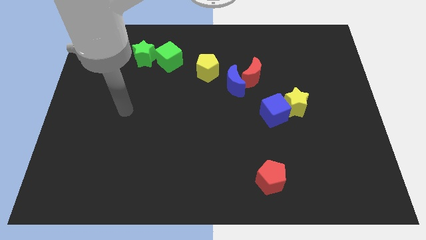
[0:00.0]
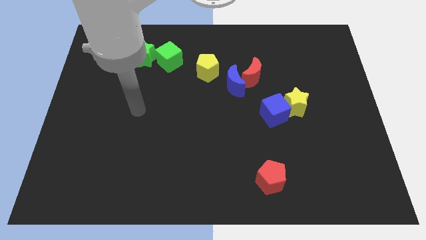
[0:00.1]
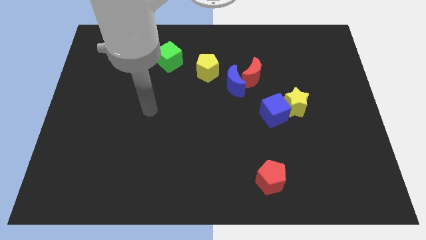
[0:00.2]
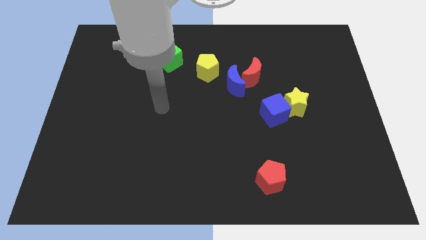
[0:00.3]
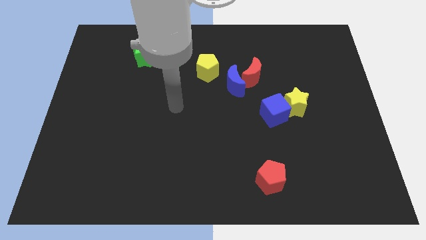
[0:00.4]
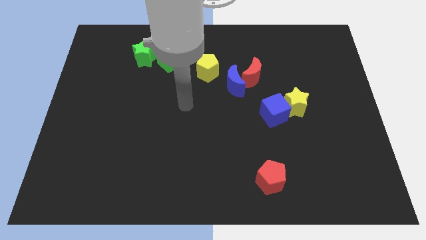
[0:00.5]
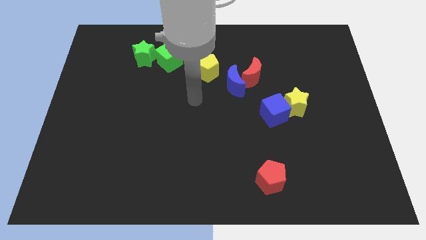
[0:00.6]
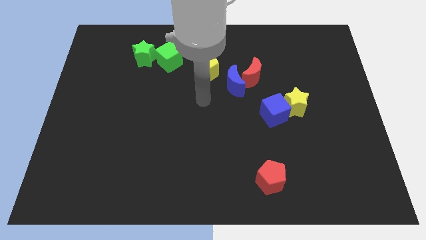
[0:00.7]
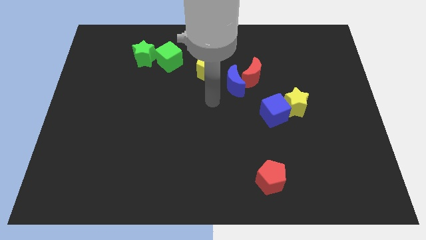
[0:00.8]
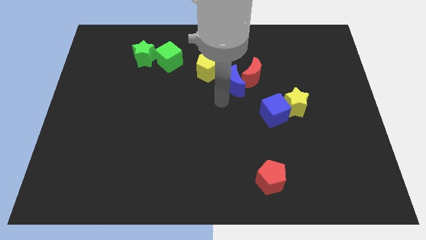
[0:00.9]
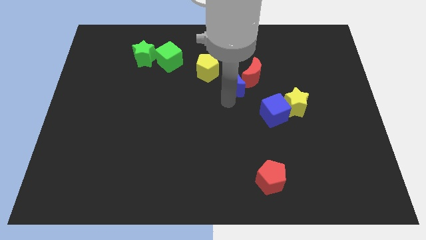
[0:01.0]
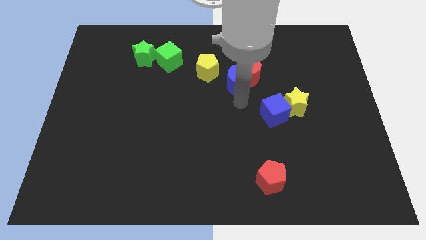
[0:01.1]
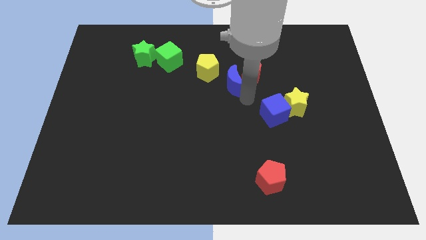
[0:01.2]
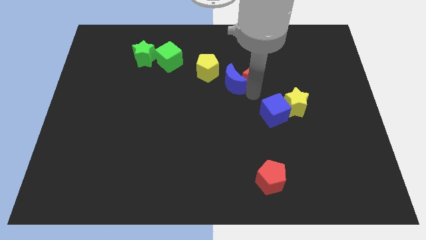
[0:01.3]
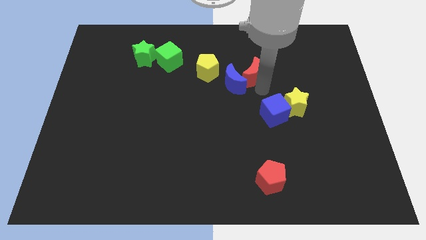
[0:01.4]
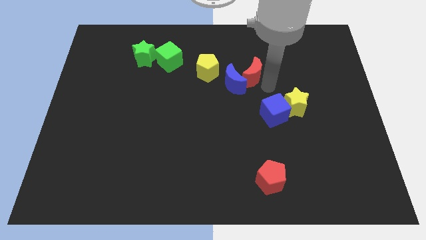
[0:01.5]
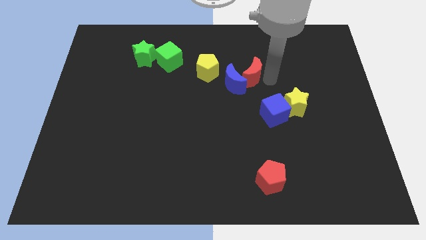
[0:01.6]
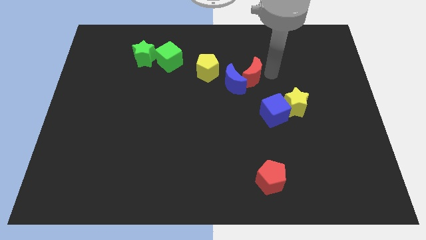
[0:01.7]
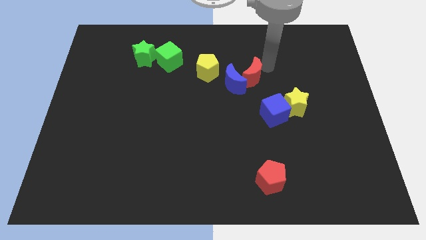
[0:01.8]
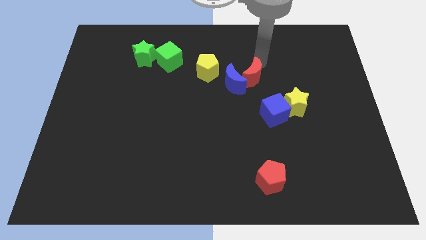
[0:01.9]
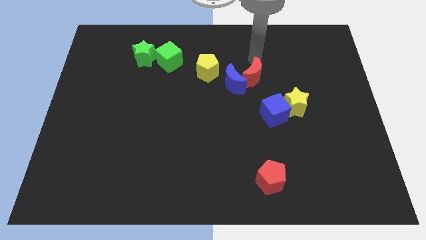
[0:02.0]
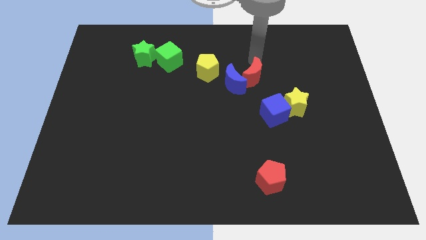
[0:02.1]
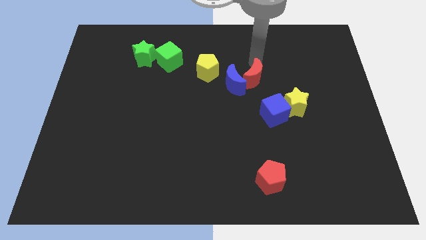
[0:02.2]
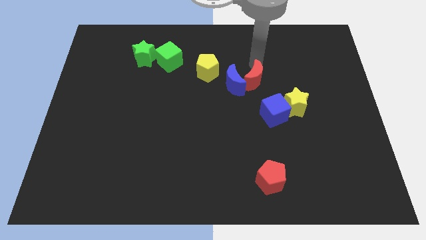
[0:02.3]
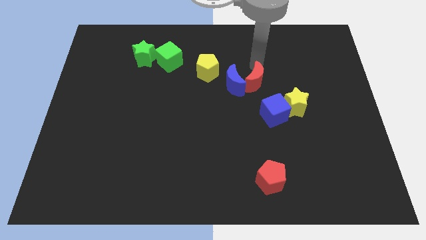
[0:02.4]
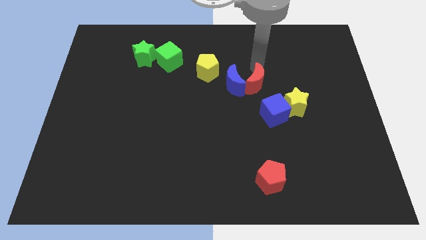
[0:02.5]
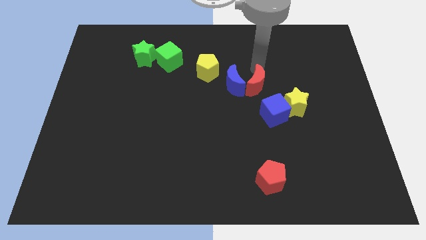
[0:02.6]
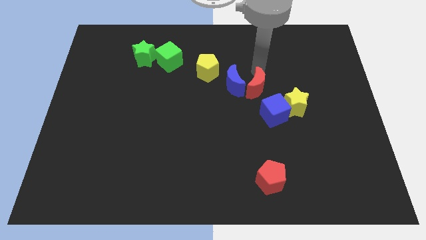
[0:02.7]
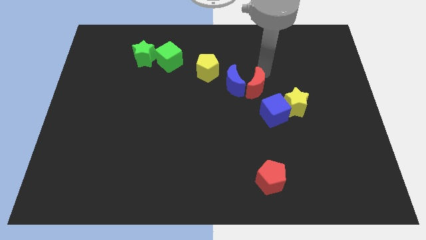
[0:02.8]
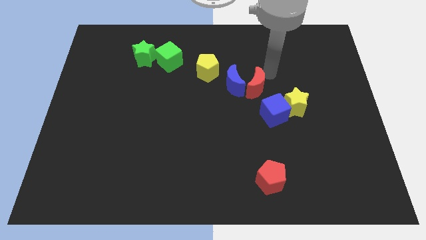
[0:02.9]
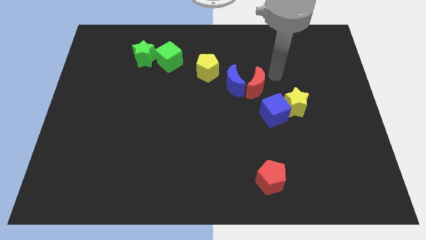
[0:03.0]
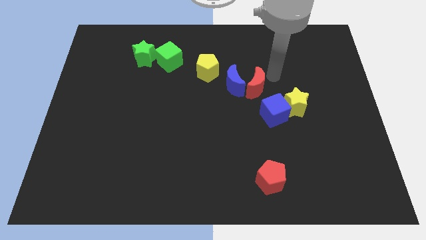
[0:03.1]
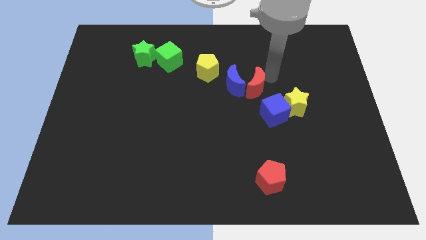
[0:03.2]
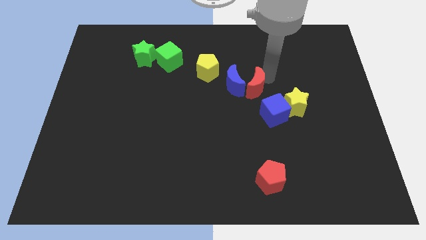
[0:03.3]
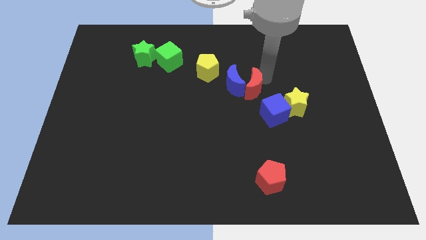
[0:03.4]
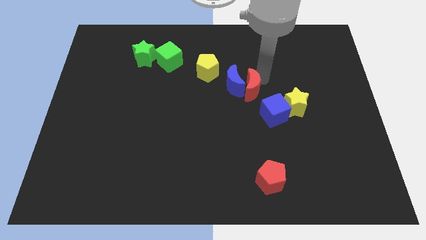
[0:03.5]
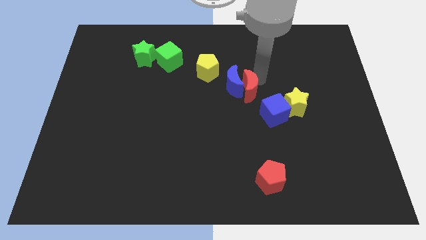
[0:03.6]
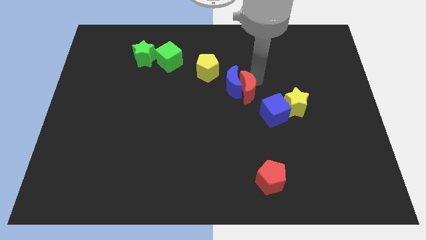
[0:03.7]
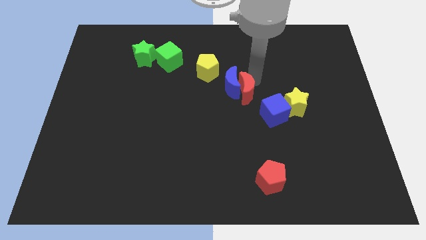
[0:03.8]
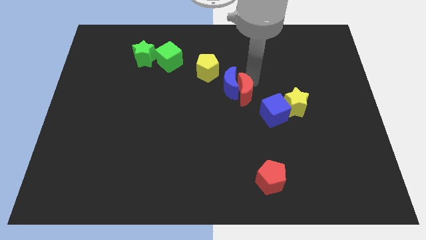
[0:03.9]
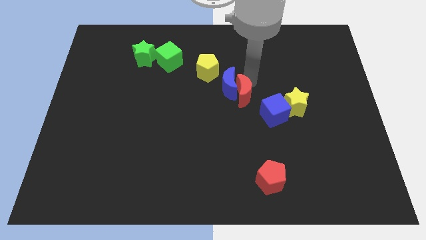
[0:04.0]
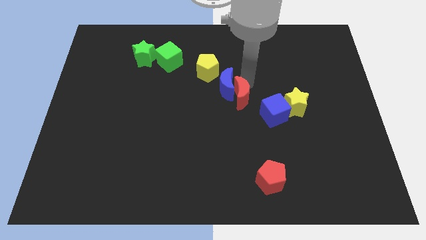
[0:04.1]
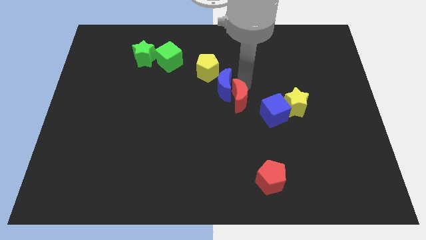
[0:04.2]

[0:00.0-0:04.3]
slightly move the red moon diagonally downwards and left

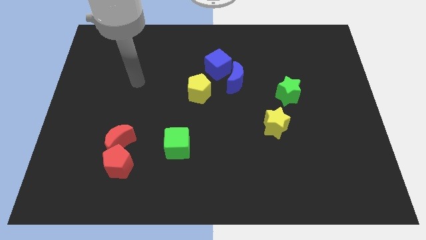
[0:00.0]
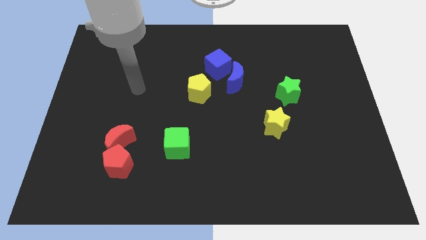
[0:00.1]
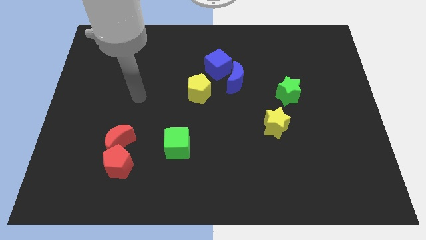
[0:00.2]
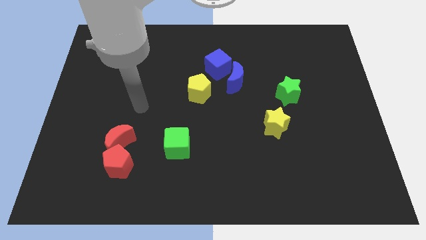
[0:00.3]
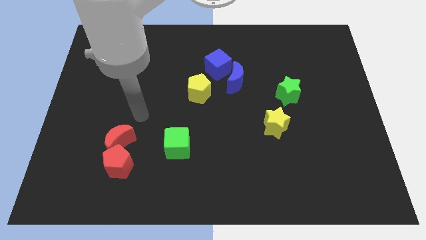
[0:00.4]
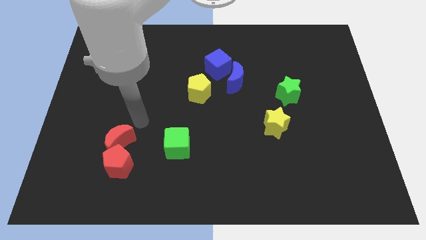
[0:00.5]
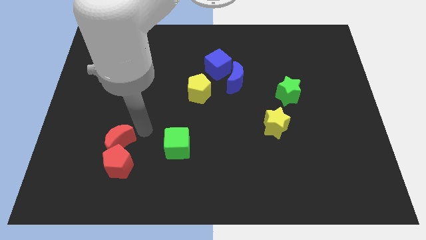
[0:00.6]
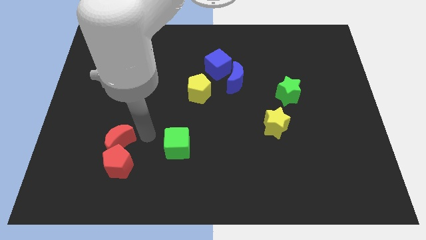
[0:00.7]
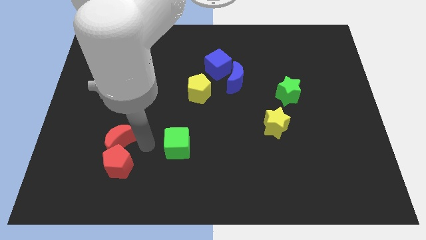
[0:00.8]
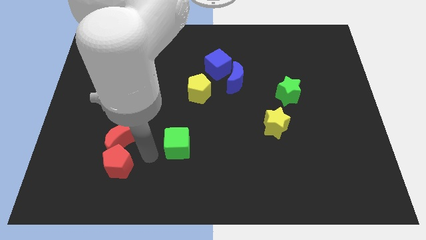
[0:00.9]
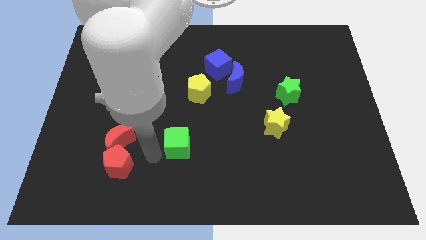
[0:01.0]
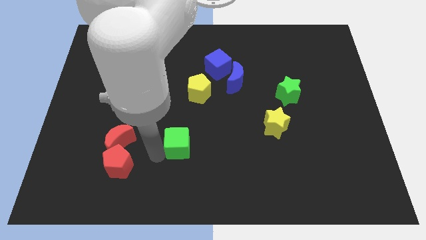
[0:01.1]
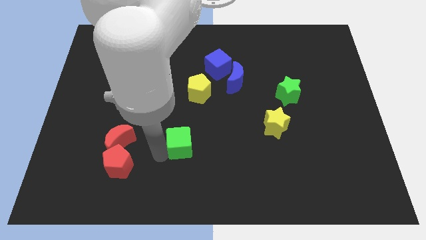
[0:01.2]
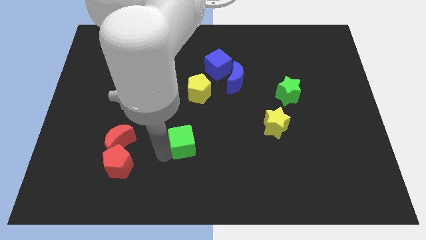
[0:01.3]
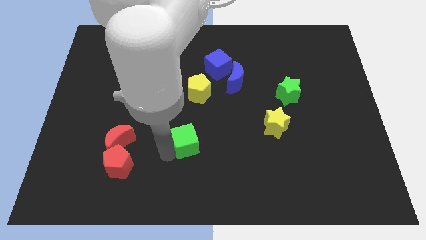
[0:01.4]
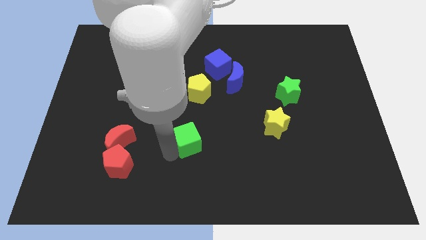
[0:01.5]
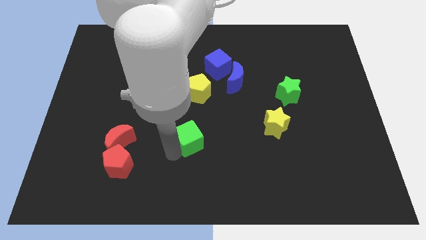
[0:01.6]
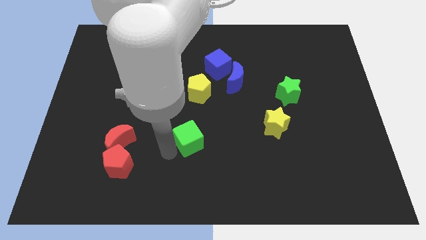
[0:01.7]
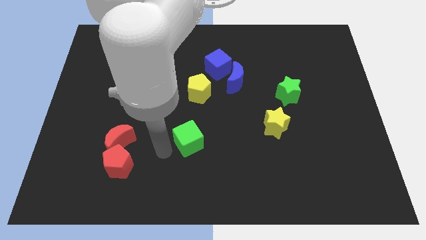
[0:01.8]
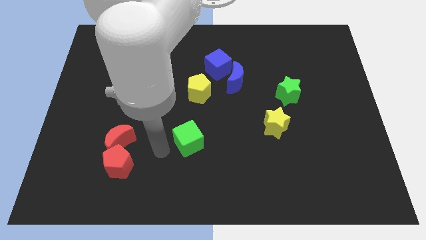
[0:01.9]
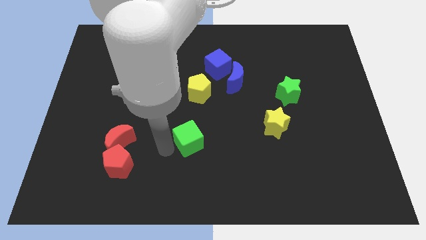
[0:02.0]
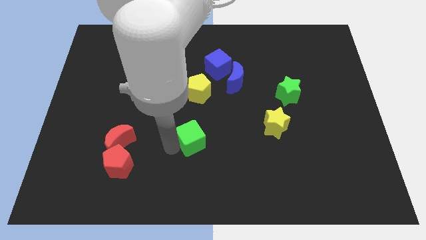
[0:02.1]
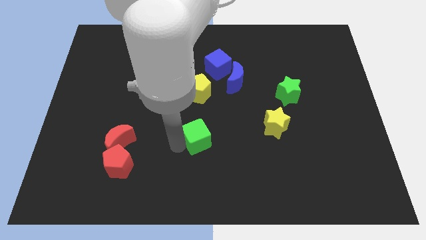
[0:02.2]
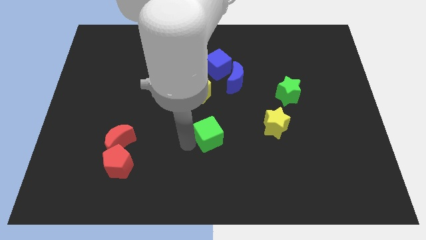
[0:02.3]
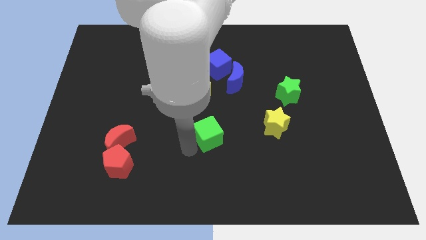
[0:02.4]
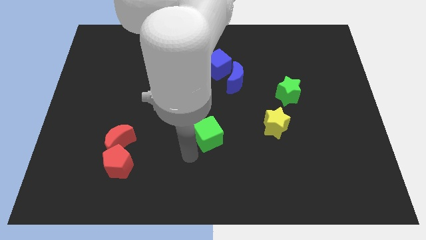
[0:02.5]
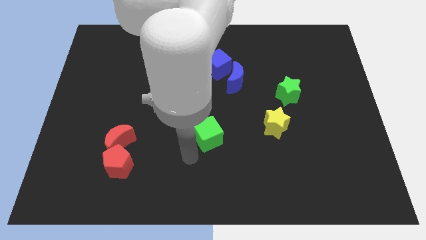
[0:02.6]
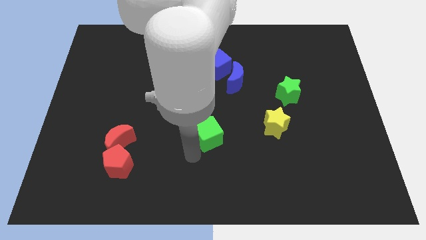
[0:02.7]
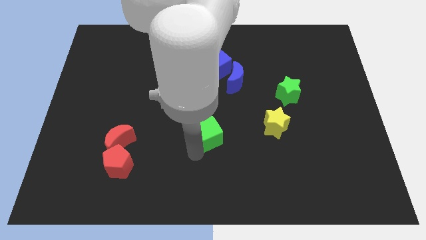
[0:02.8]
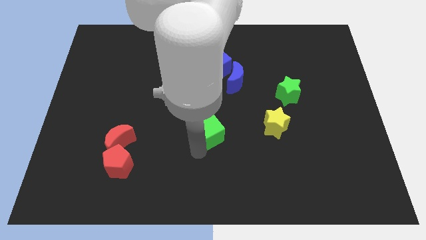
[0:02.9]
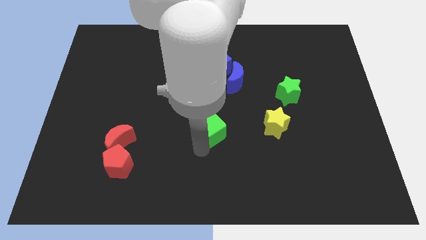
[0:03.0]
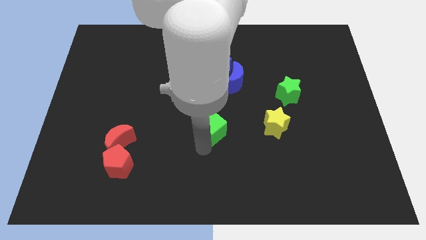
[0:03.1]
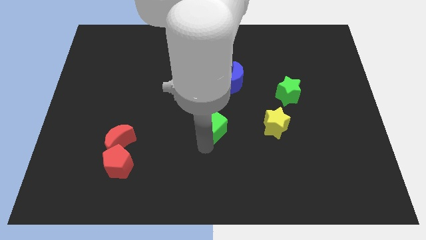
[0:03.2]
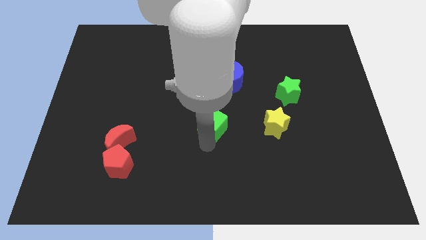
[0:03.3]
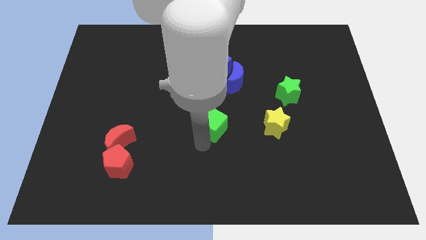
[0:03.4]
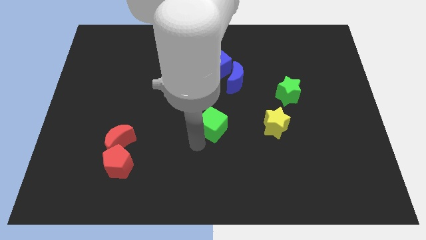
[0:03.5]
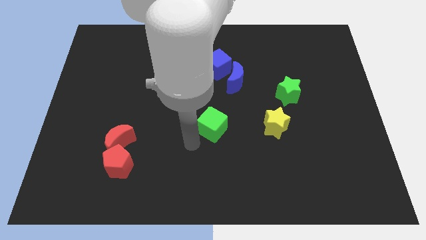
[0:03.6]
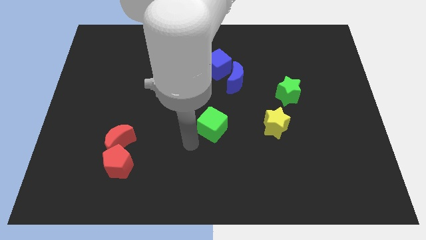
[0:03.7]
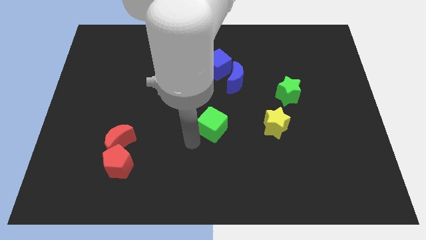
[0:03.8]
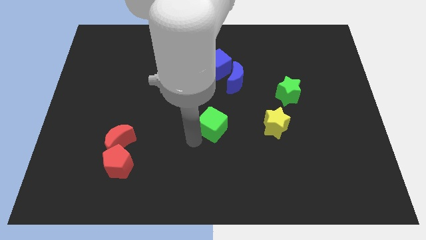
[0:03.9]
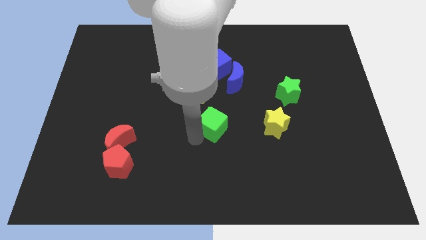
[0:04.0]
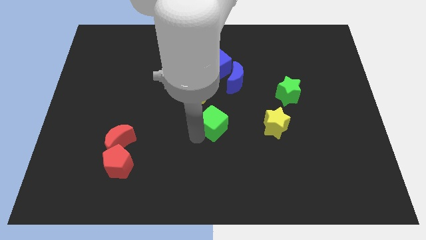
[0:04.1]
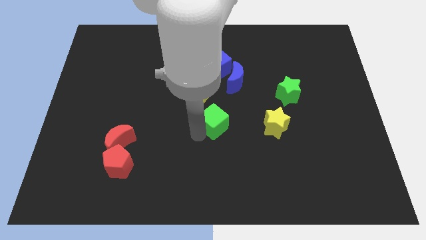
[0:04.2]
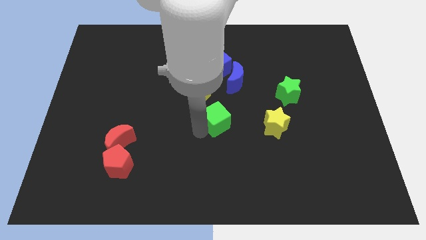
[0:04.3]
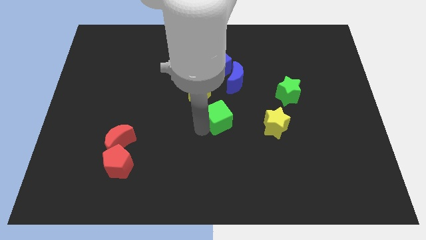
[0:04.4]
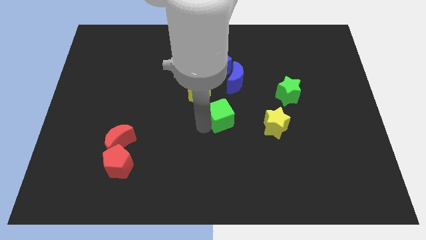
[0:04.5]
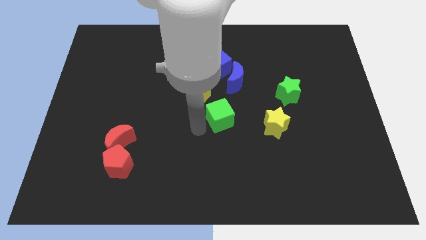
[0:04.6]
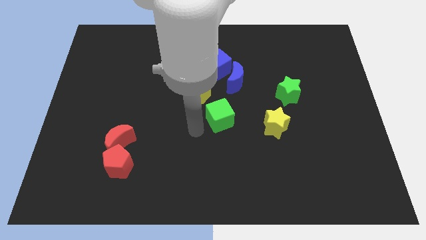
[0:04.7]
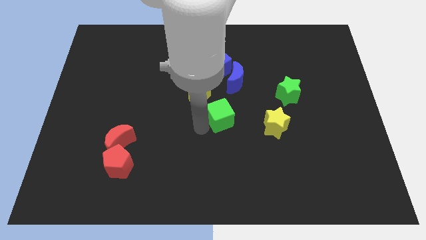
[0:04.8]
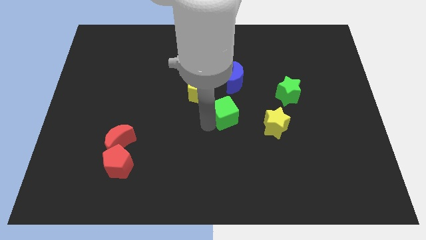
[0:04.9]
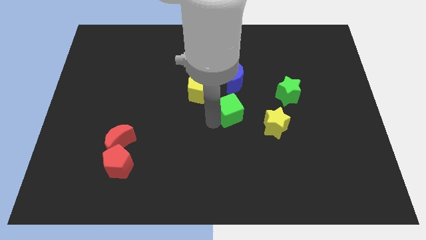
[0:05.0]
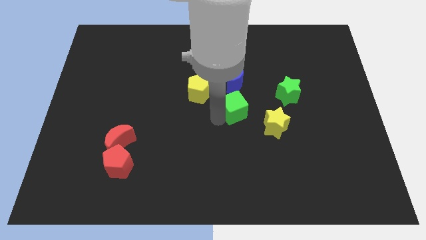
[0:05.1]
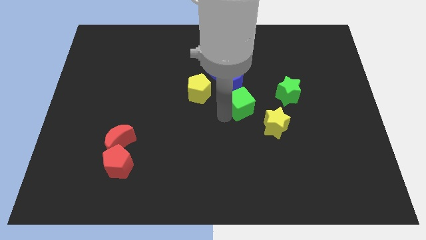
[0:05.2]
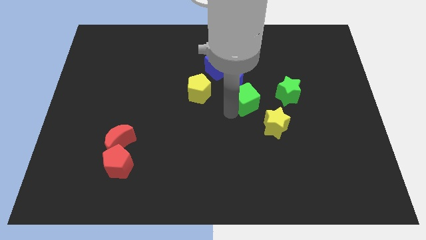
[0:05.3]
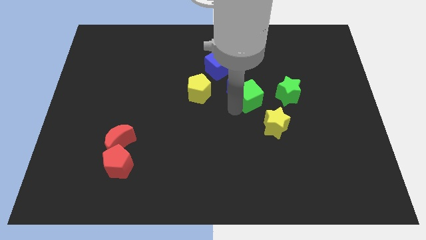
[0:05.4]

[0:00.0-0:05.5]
move the green cube upwards and then to the right
